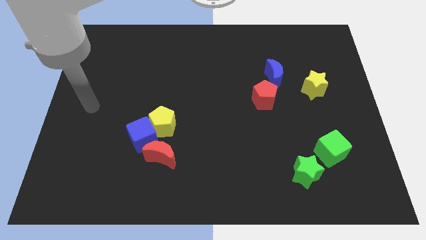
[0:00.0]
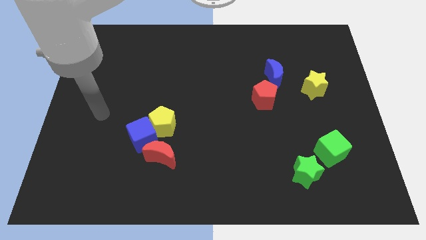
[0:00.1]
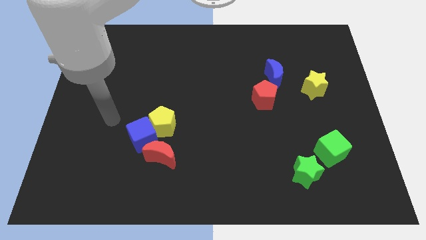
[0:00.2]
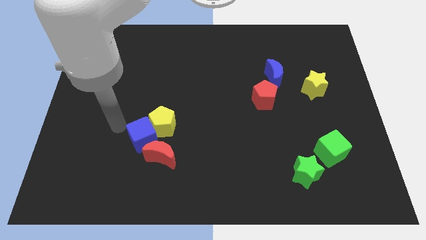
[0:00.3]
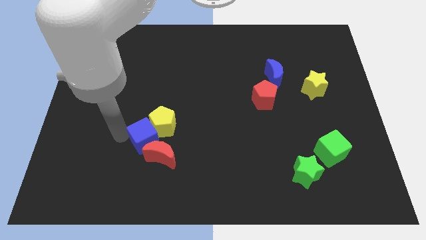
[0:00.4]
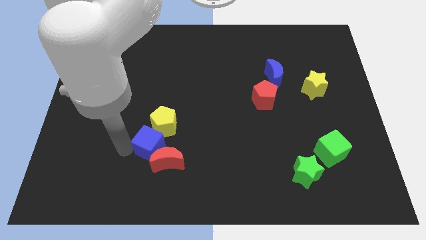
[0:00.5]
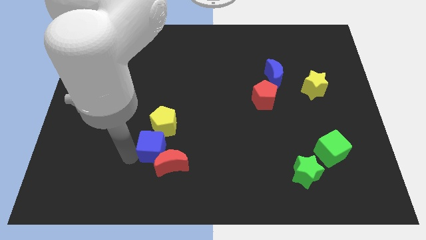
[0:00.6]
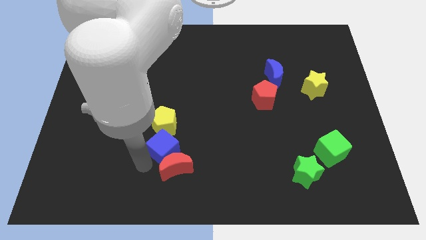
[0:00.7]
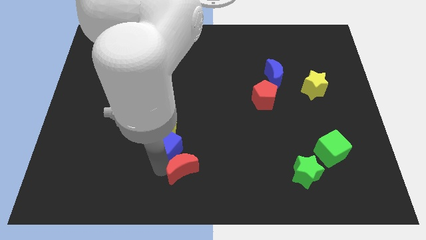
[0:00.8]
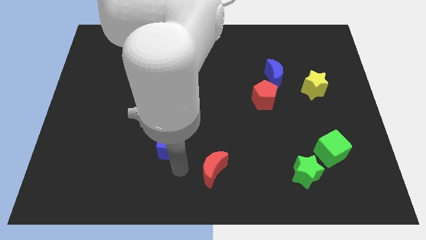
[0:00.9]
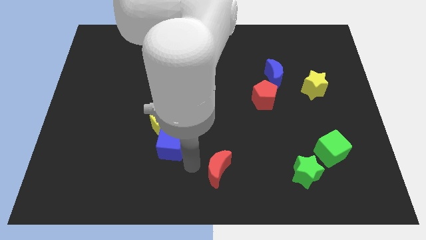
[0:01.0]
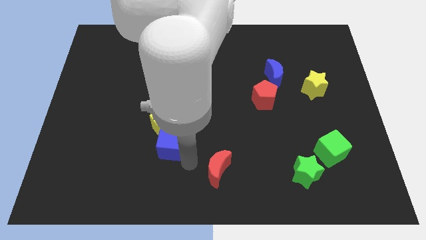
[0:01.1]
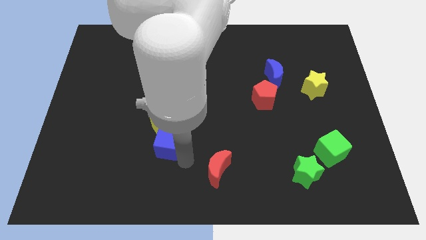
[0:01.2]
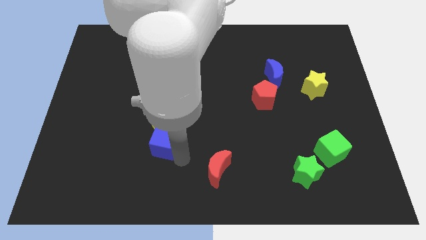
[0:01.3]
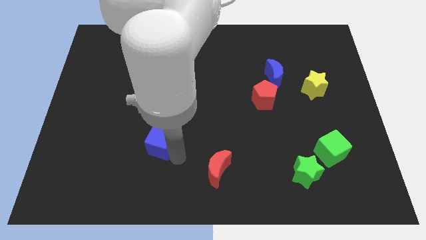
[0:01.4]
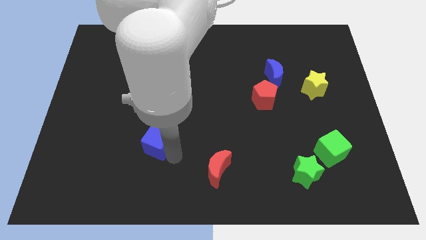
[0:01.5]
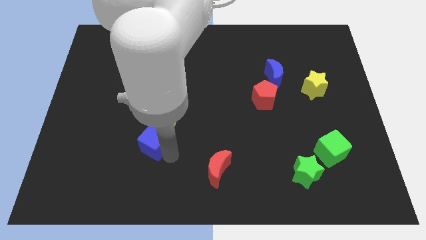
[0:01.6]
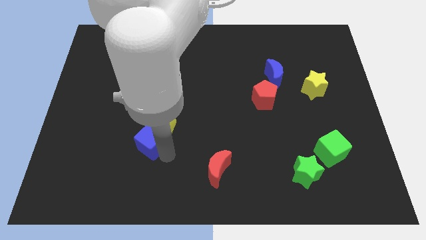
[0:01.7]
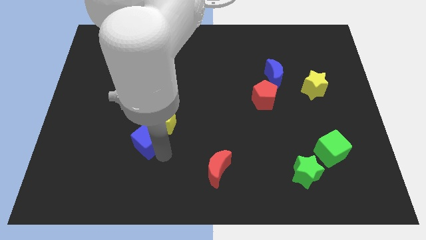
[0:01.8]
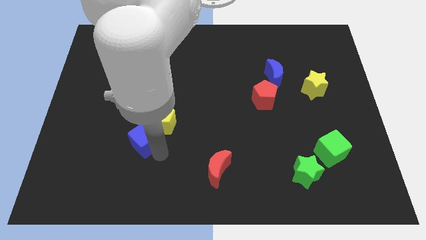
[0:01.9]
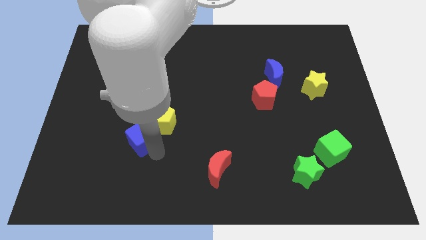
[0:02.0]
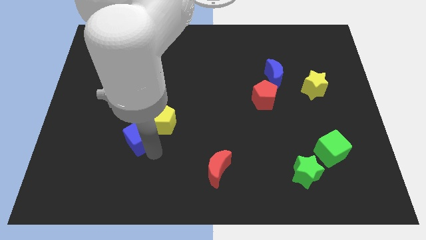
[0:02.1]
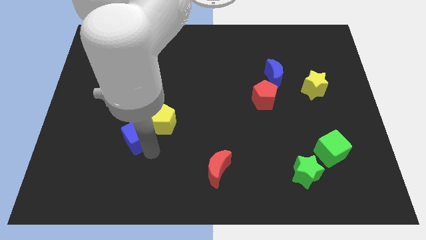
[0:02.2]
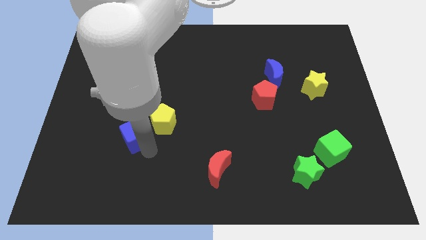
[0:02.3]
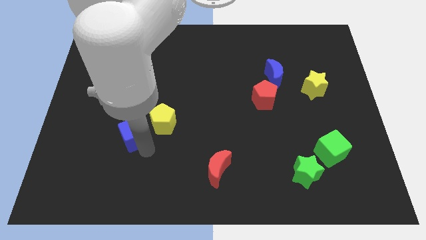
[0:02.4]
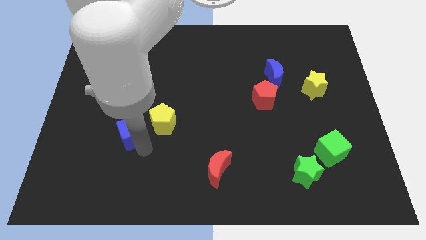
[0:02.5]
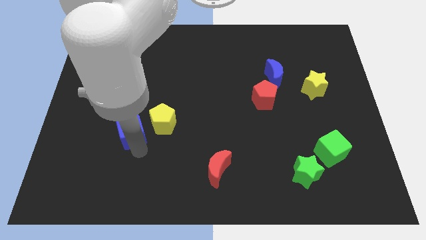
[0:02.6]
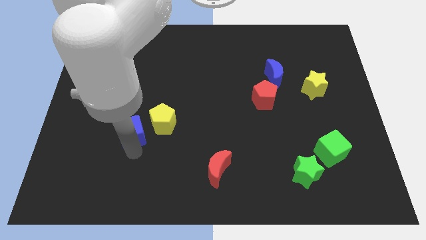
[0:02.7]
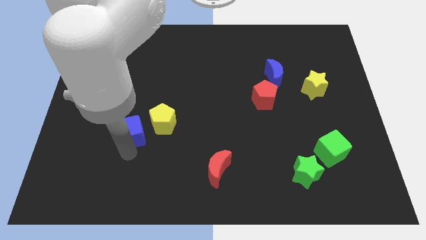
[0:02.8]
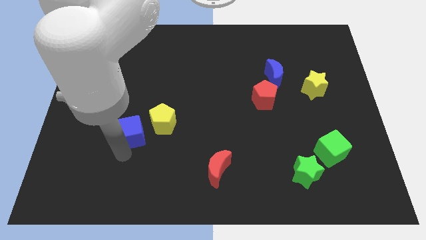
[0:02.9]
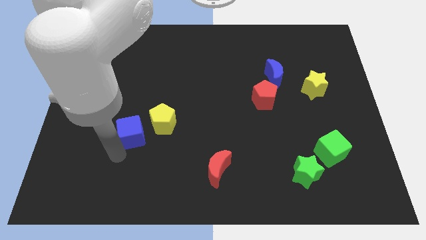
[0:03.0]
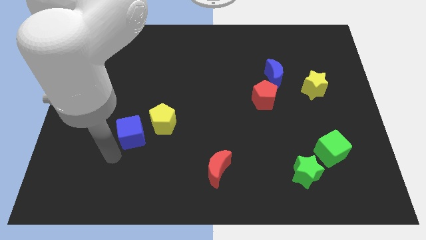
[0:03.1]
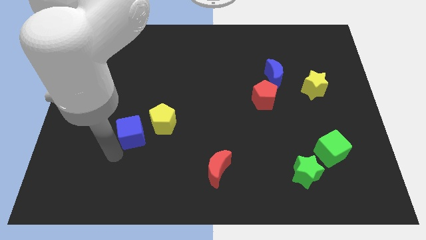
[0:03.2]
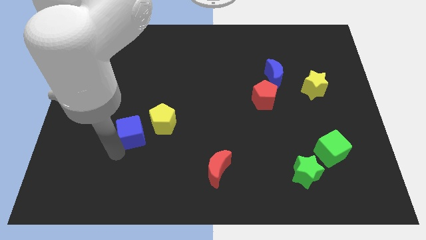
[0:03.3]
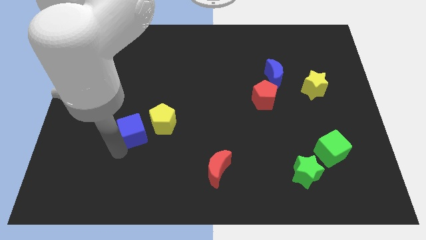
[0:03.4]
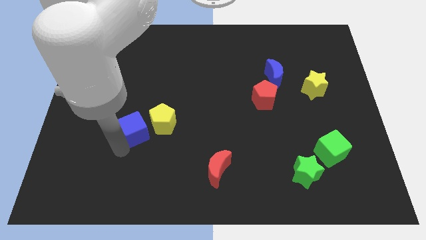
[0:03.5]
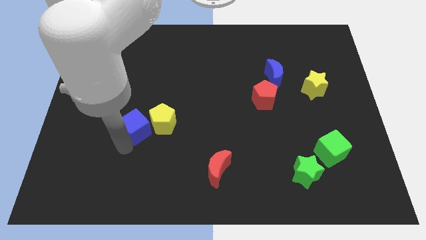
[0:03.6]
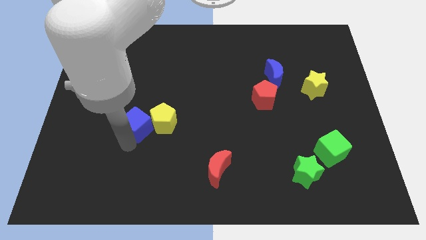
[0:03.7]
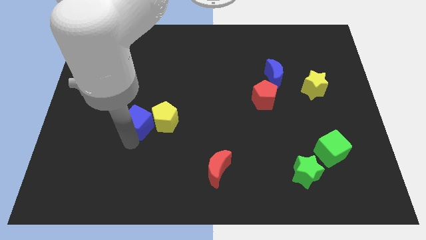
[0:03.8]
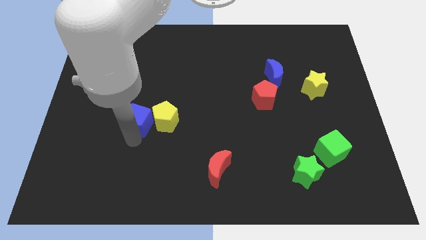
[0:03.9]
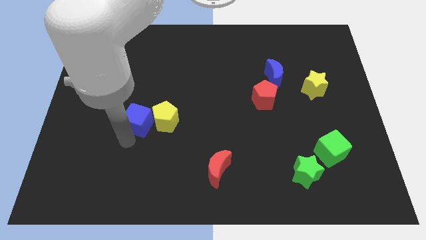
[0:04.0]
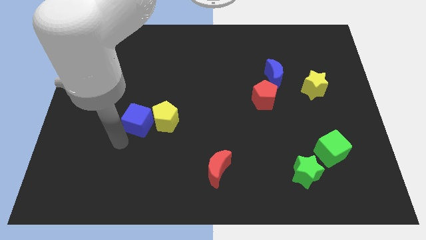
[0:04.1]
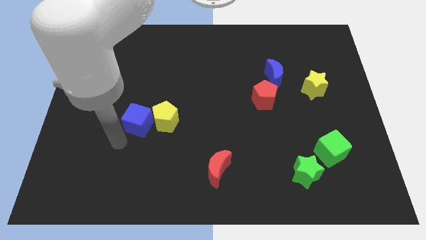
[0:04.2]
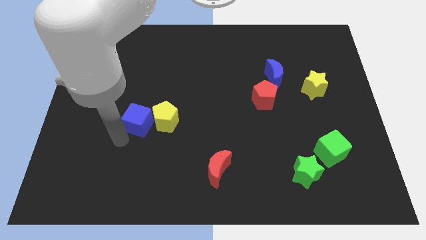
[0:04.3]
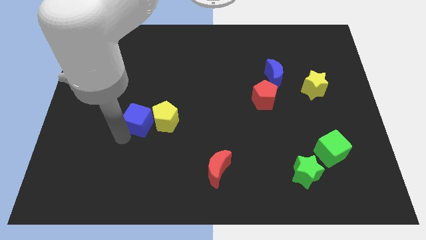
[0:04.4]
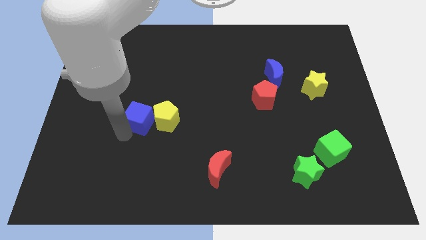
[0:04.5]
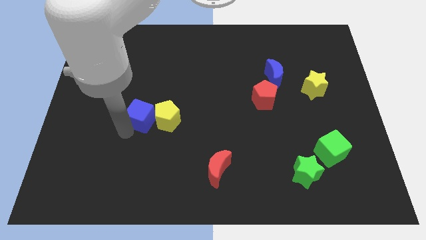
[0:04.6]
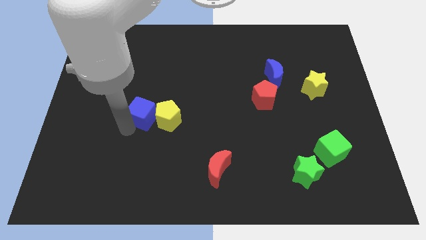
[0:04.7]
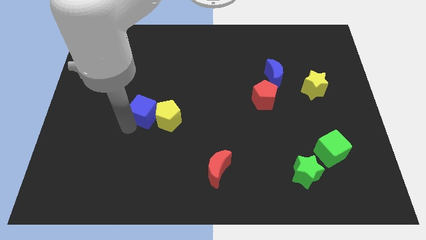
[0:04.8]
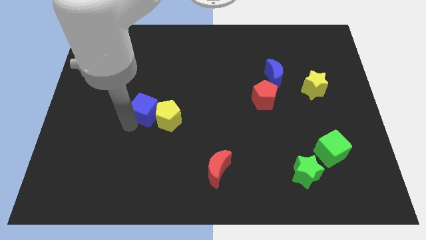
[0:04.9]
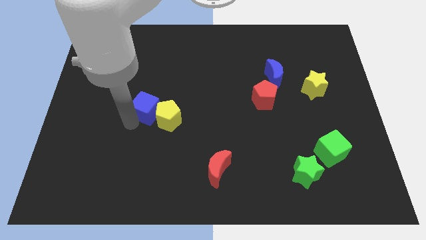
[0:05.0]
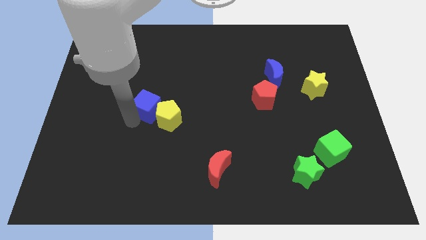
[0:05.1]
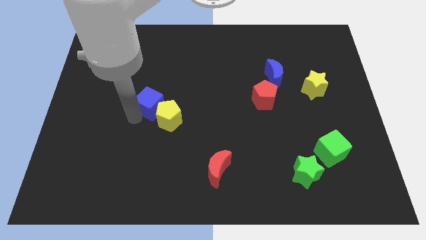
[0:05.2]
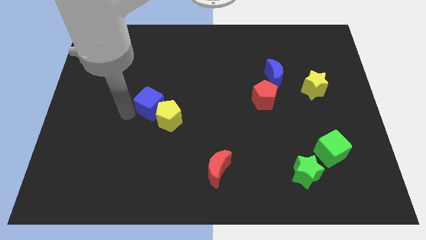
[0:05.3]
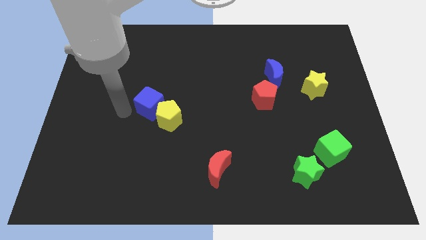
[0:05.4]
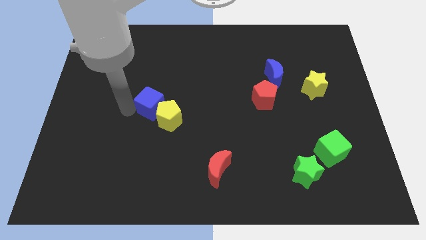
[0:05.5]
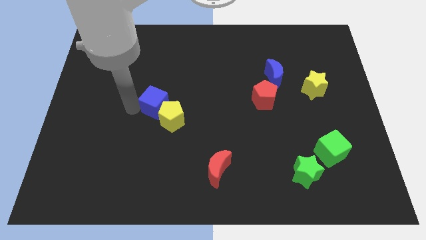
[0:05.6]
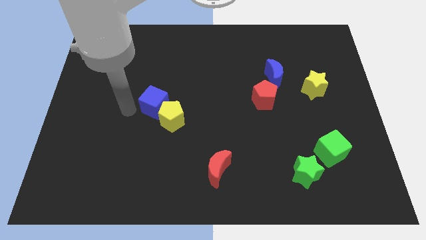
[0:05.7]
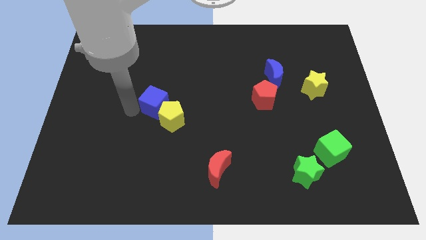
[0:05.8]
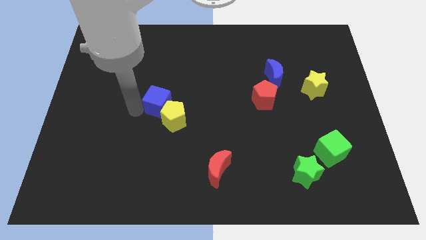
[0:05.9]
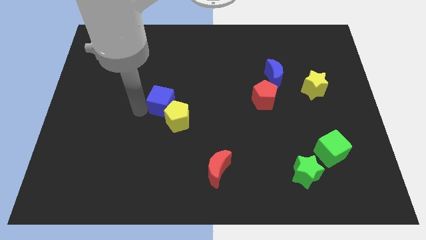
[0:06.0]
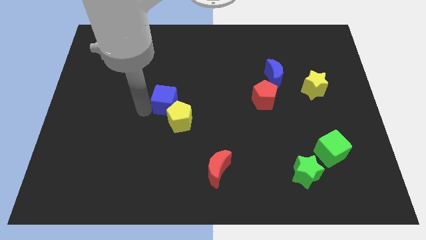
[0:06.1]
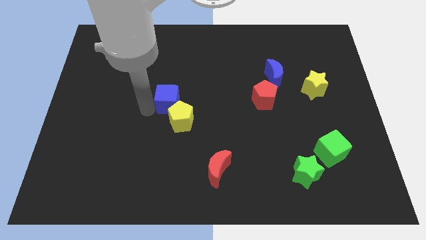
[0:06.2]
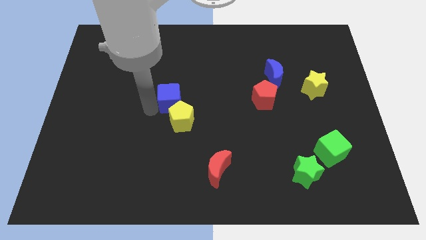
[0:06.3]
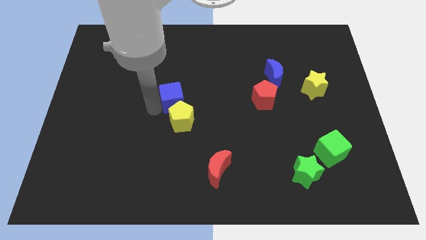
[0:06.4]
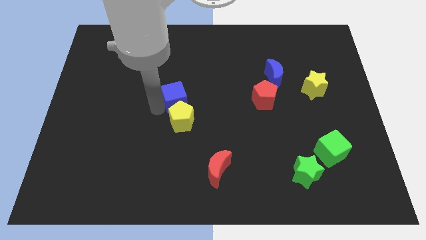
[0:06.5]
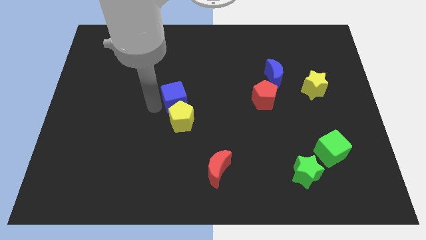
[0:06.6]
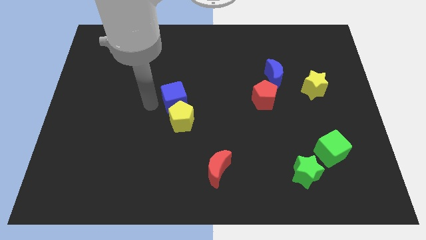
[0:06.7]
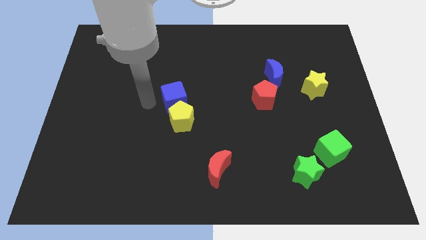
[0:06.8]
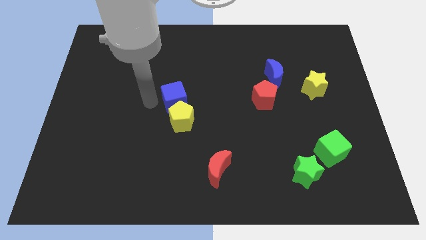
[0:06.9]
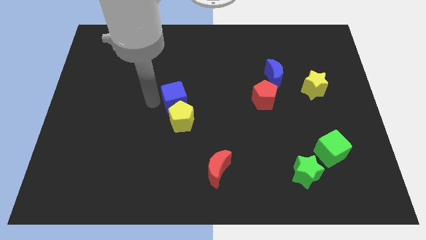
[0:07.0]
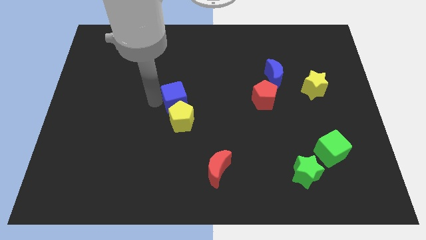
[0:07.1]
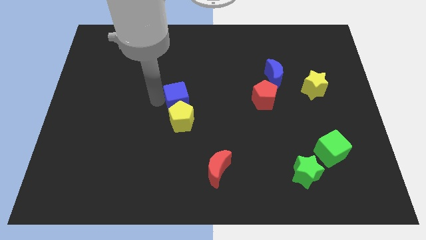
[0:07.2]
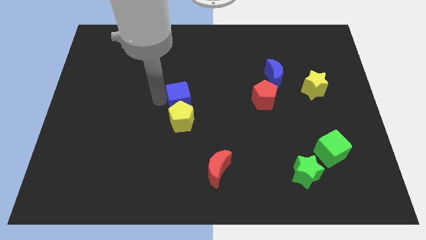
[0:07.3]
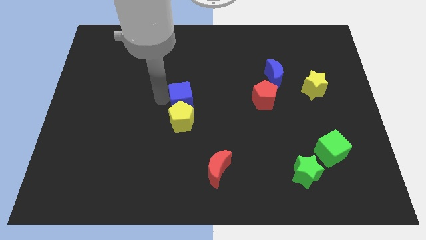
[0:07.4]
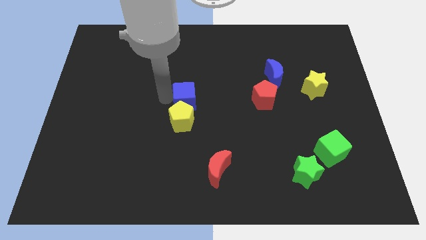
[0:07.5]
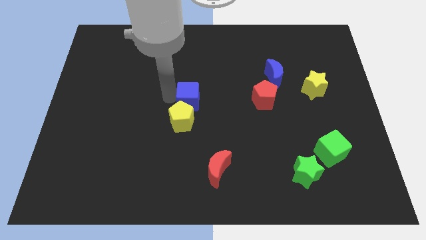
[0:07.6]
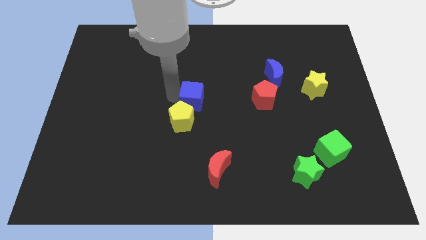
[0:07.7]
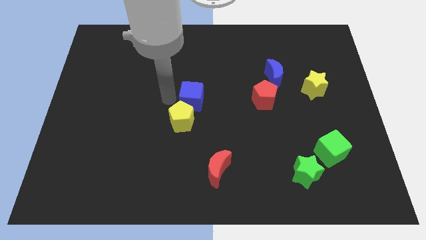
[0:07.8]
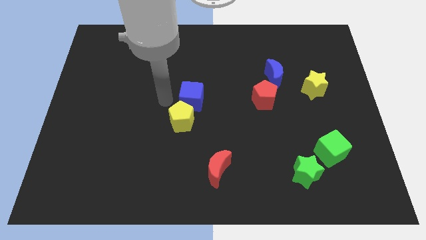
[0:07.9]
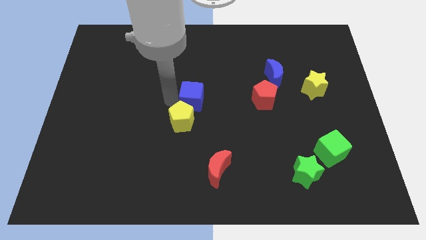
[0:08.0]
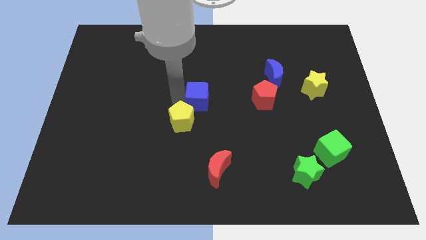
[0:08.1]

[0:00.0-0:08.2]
move the blue cube to the left of the red pentagon
